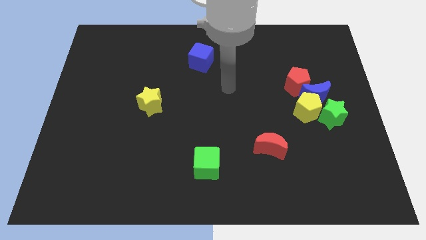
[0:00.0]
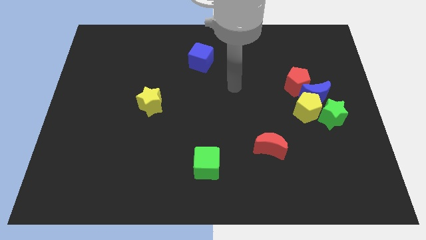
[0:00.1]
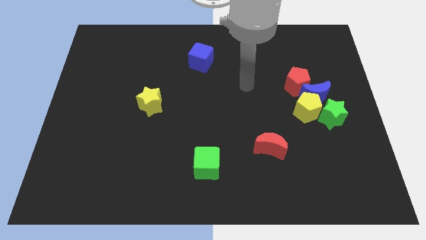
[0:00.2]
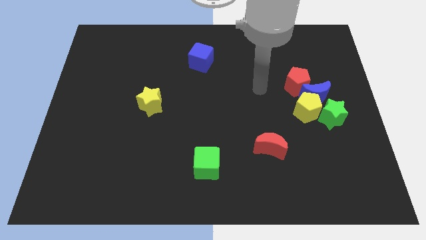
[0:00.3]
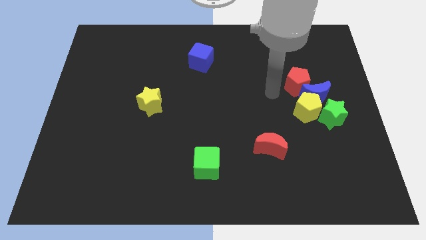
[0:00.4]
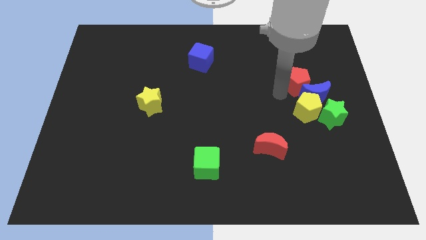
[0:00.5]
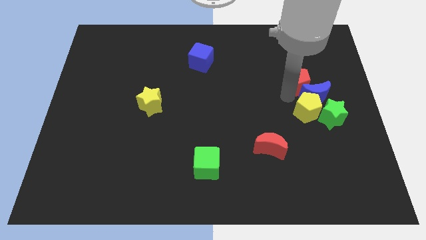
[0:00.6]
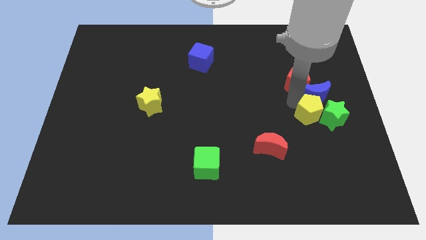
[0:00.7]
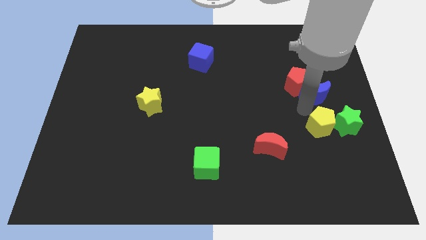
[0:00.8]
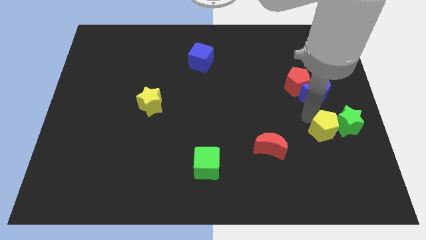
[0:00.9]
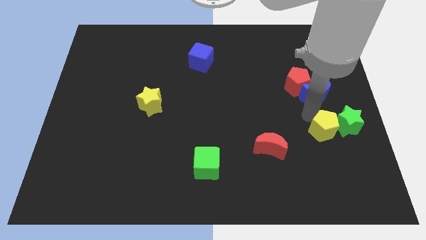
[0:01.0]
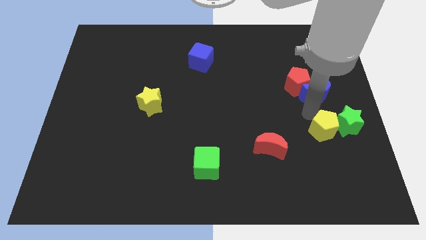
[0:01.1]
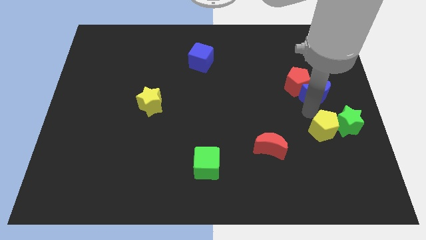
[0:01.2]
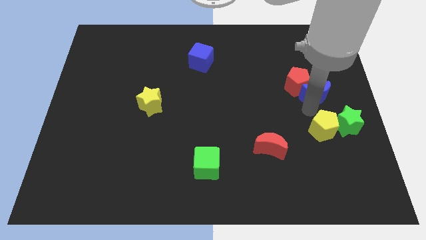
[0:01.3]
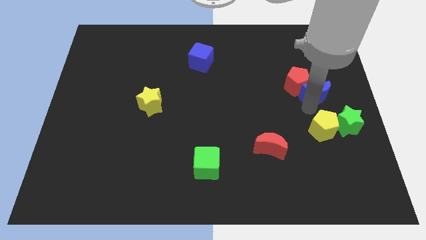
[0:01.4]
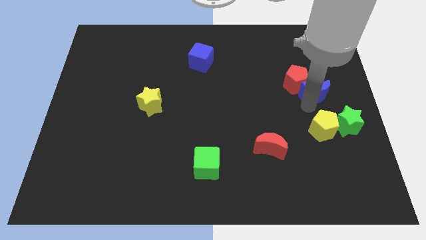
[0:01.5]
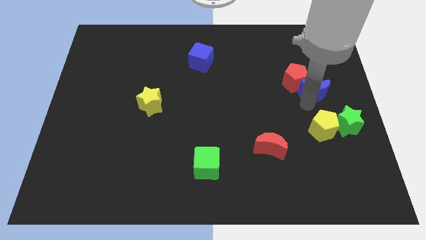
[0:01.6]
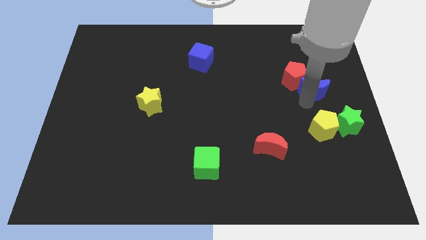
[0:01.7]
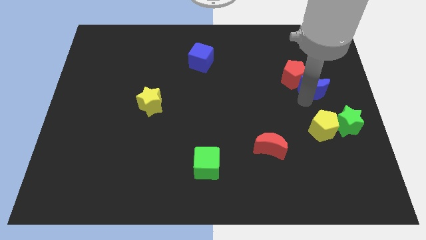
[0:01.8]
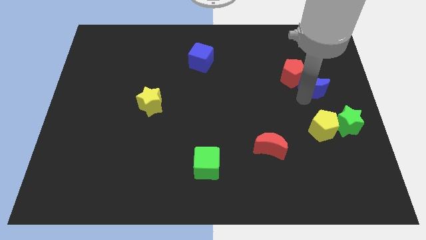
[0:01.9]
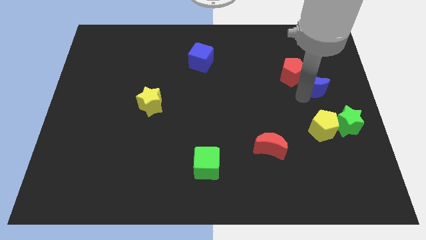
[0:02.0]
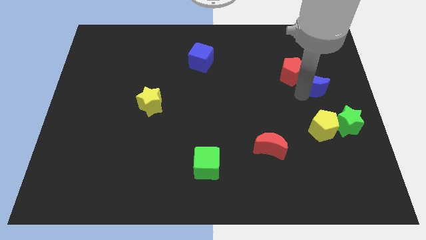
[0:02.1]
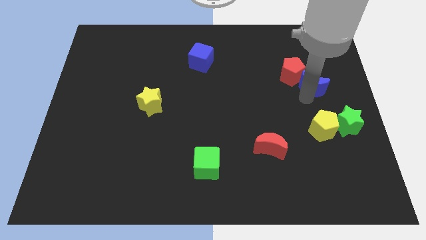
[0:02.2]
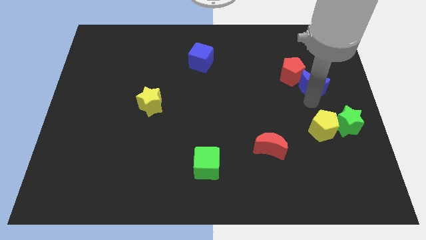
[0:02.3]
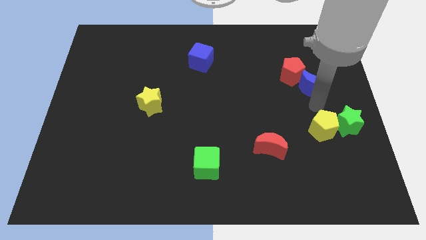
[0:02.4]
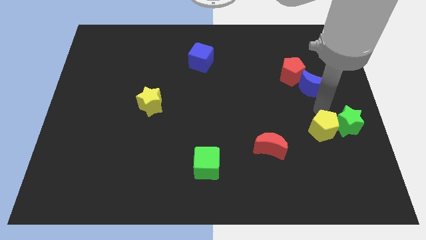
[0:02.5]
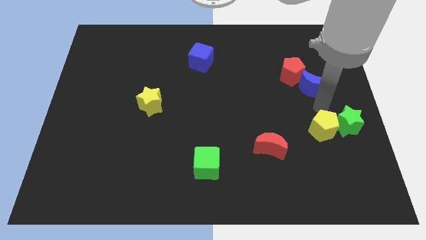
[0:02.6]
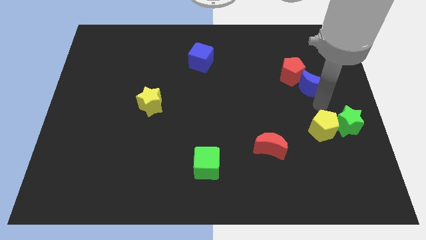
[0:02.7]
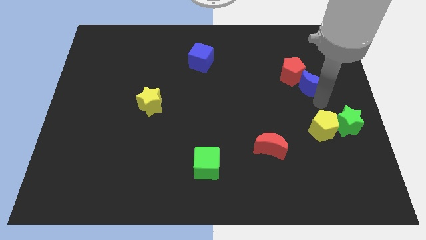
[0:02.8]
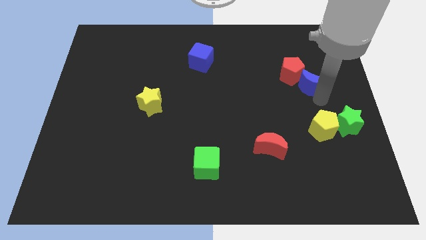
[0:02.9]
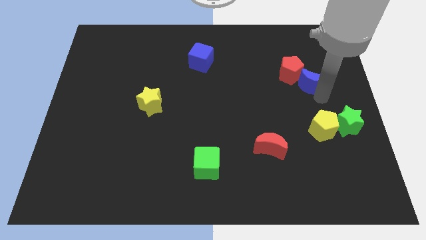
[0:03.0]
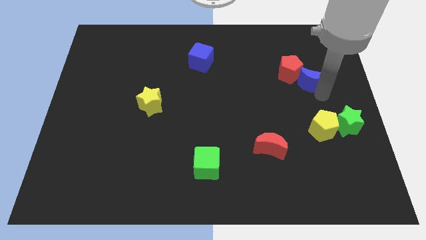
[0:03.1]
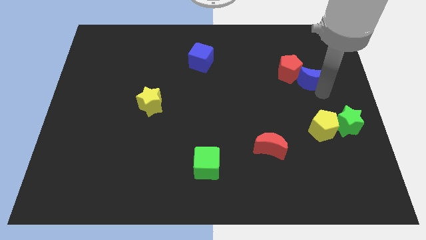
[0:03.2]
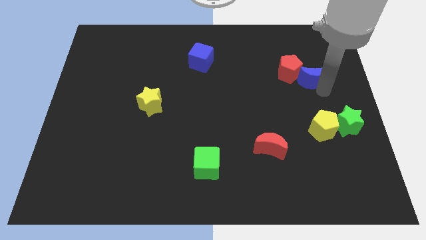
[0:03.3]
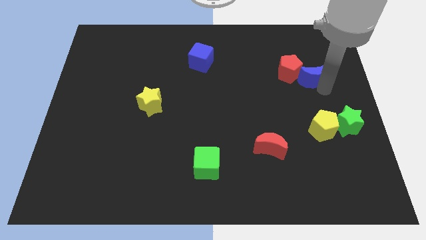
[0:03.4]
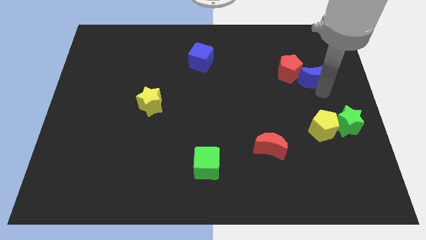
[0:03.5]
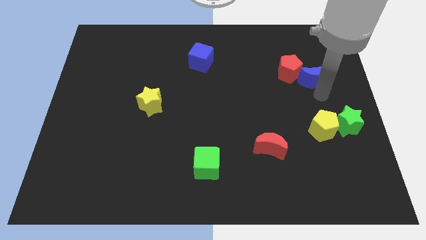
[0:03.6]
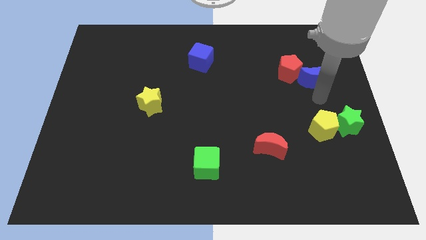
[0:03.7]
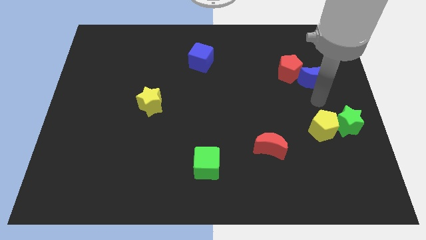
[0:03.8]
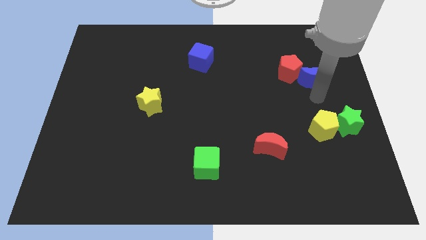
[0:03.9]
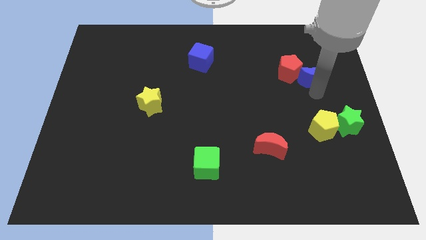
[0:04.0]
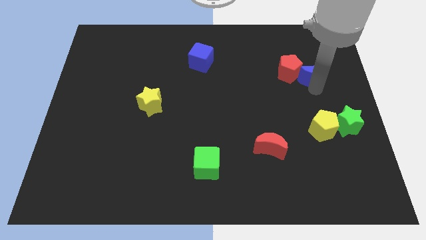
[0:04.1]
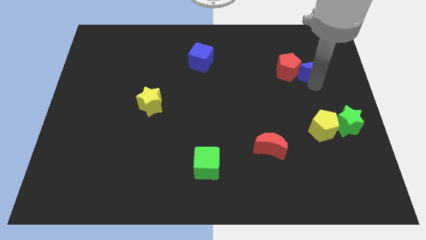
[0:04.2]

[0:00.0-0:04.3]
pull the blue moon apart from the group of blocks

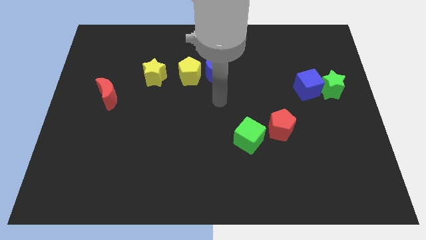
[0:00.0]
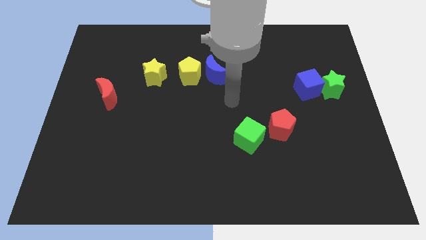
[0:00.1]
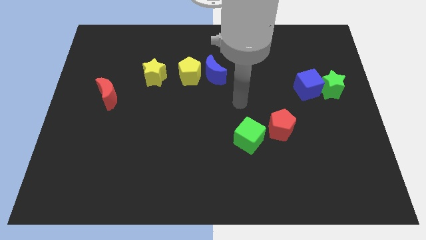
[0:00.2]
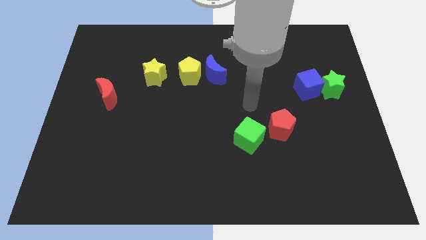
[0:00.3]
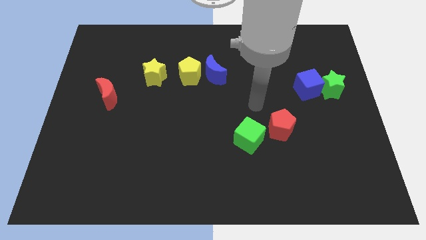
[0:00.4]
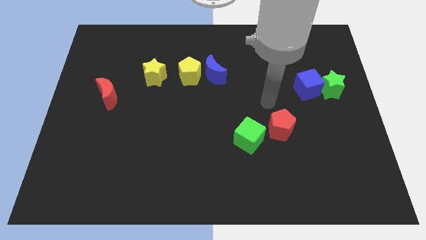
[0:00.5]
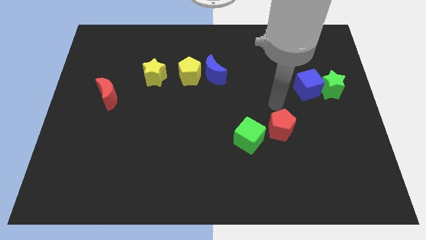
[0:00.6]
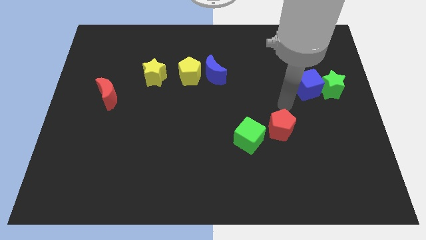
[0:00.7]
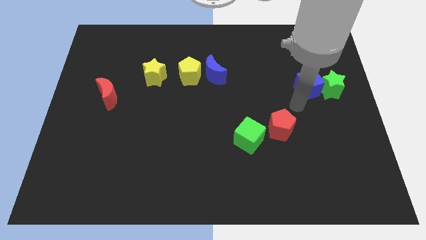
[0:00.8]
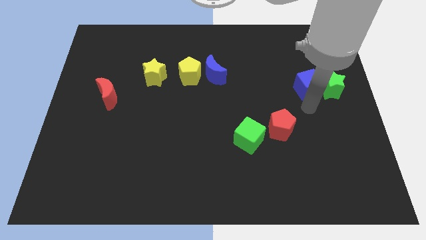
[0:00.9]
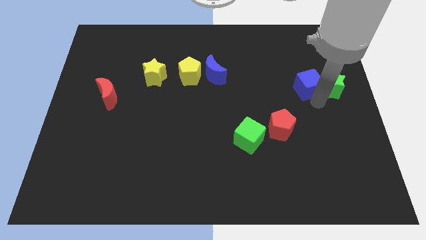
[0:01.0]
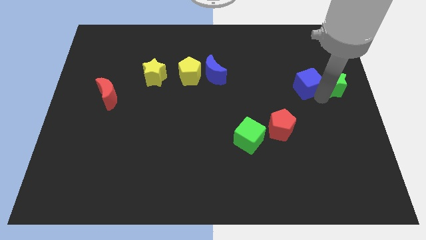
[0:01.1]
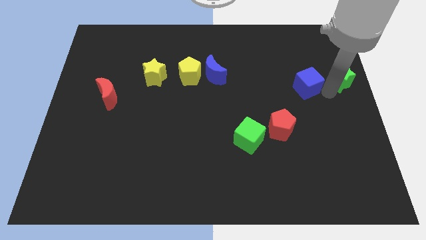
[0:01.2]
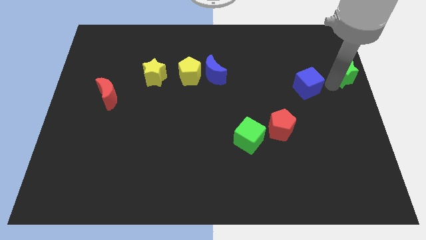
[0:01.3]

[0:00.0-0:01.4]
move the blue cube away from the green star

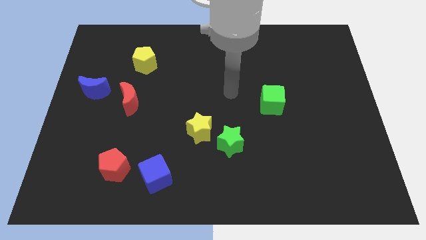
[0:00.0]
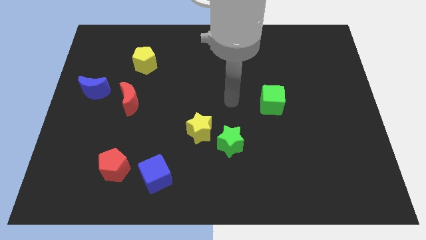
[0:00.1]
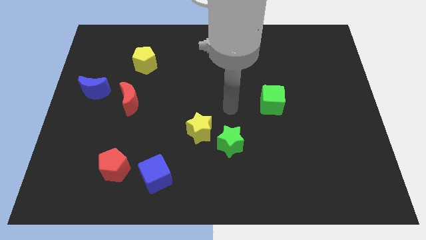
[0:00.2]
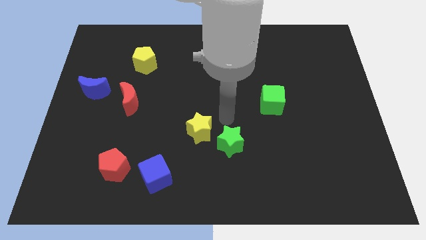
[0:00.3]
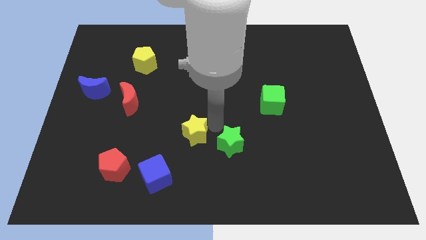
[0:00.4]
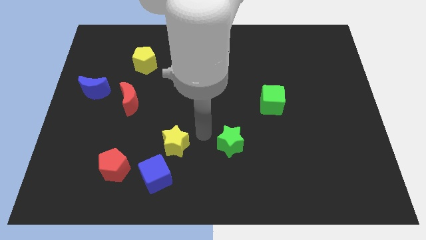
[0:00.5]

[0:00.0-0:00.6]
move the green star away from the yellow star

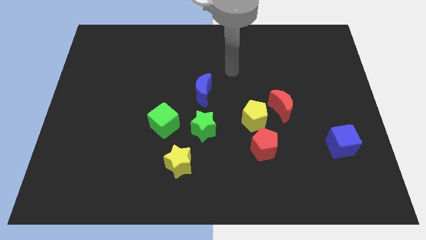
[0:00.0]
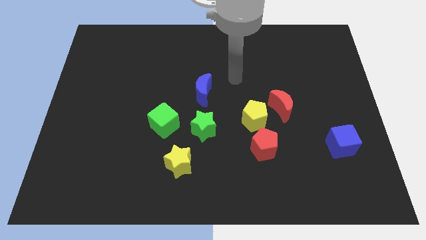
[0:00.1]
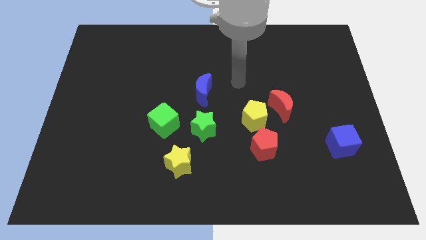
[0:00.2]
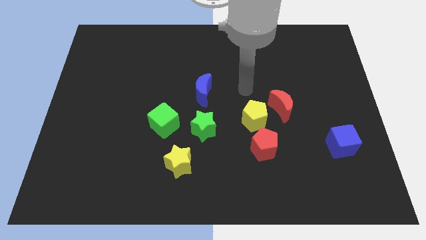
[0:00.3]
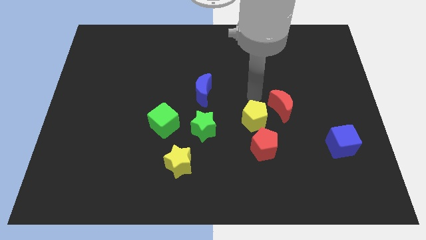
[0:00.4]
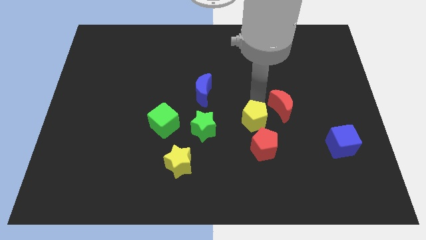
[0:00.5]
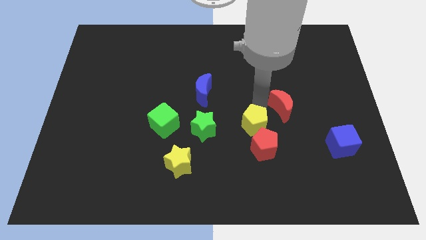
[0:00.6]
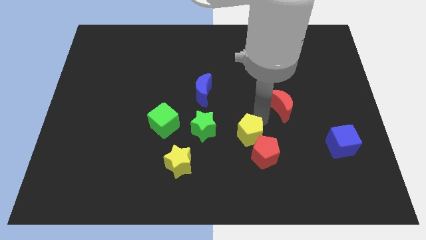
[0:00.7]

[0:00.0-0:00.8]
separate the red moon from the yellow pentagon

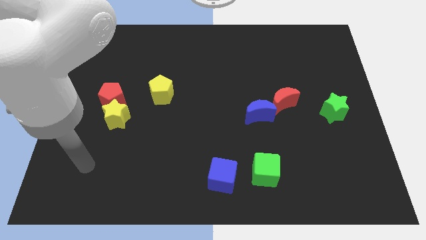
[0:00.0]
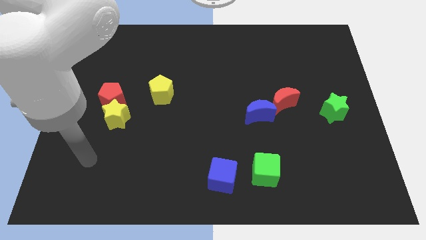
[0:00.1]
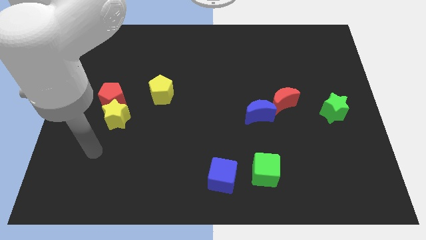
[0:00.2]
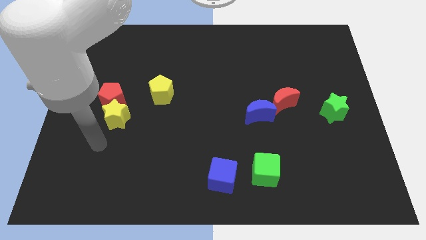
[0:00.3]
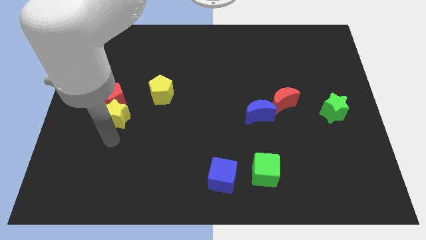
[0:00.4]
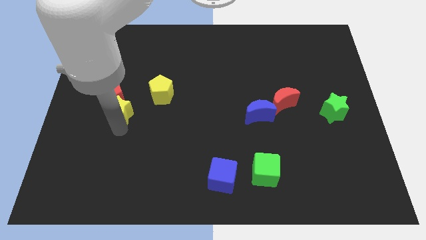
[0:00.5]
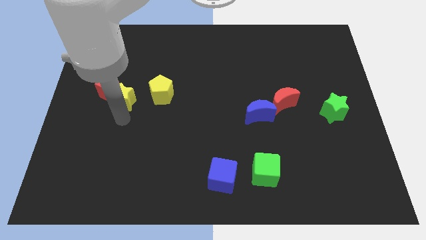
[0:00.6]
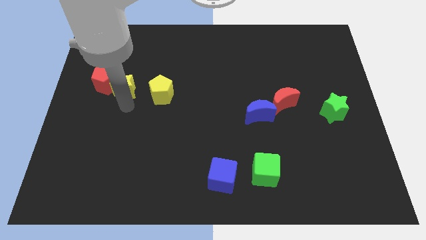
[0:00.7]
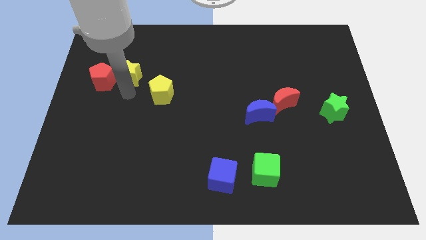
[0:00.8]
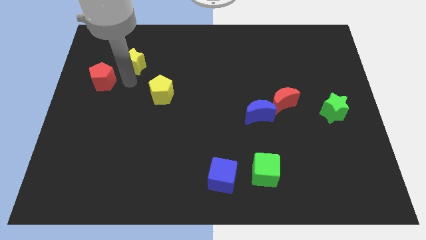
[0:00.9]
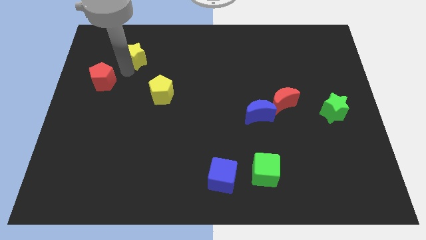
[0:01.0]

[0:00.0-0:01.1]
move the red pentagon away from the yellow star

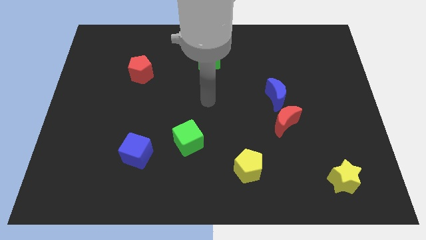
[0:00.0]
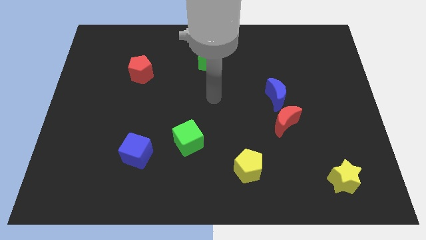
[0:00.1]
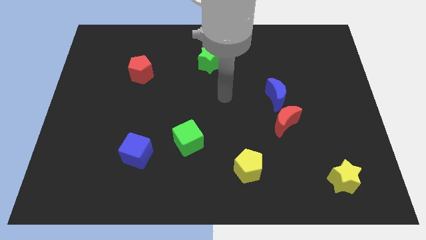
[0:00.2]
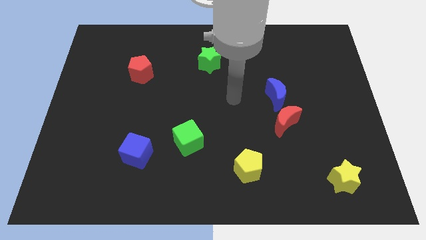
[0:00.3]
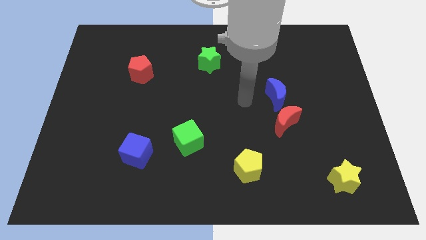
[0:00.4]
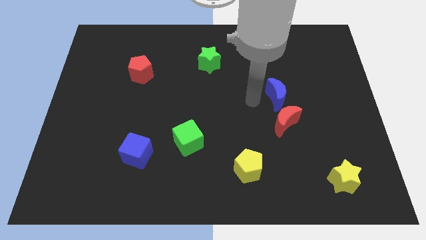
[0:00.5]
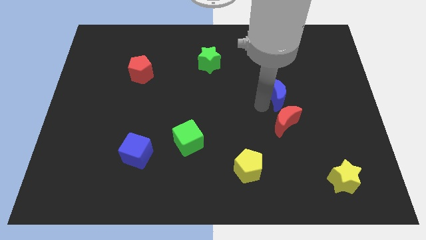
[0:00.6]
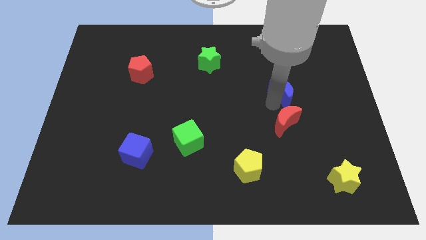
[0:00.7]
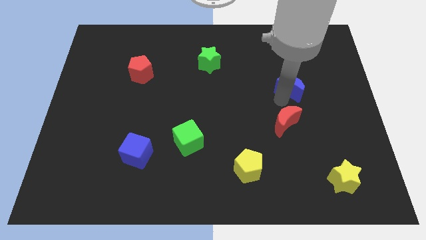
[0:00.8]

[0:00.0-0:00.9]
separate the red moon from the blue moon

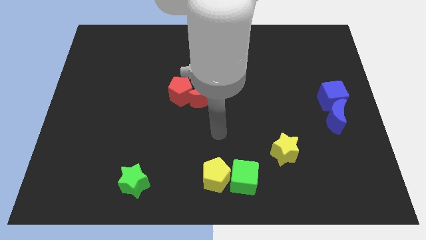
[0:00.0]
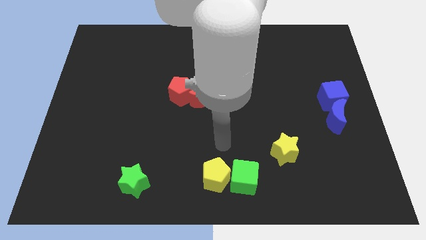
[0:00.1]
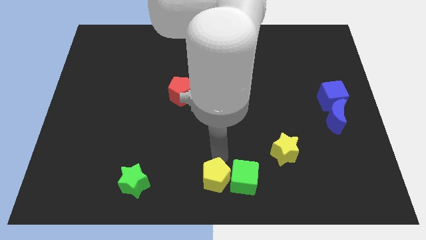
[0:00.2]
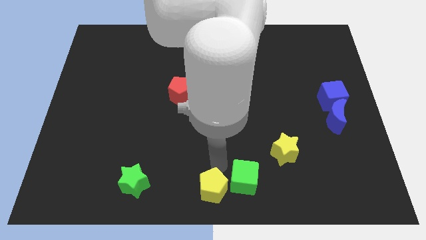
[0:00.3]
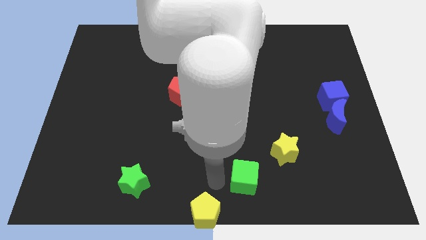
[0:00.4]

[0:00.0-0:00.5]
separate the green cube from the yellow pentagon
